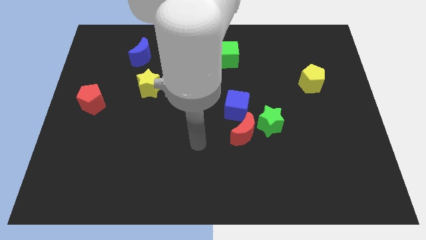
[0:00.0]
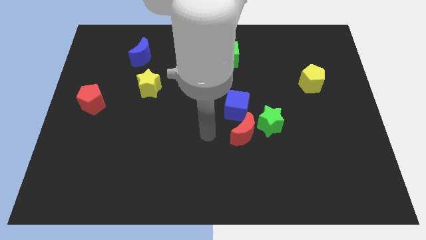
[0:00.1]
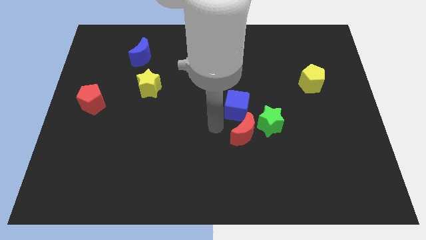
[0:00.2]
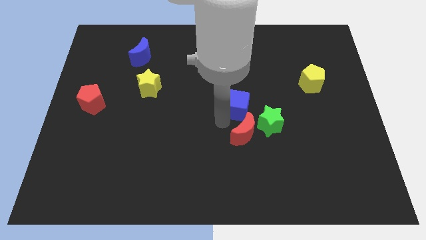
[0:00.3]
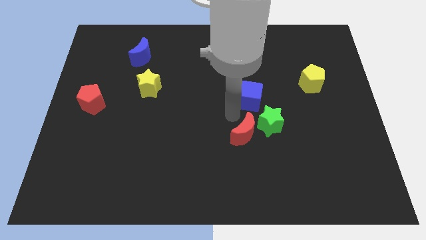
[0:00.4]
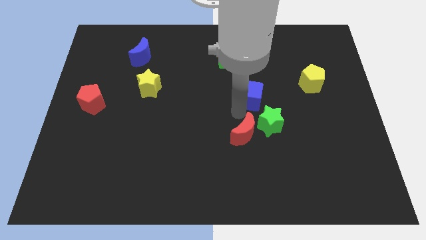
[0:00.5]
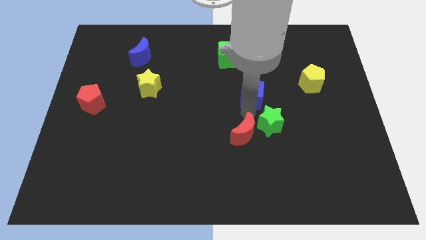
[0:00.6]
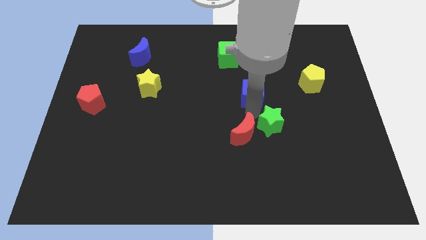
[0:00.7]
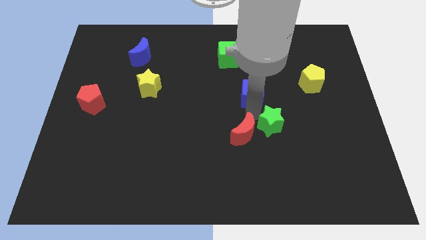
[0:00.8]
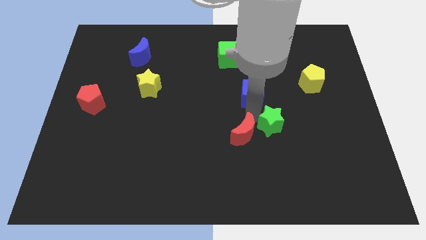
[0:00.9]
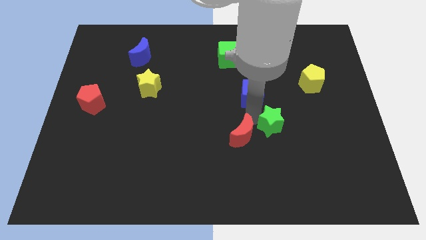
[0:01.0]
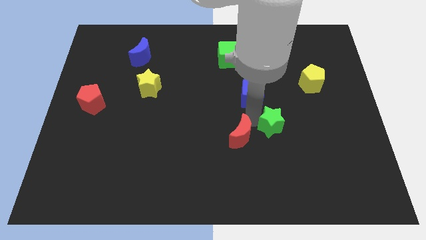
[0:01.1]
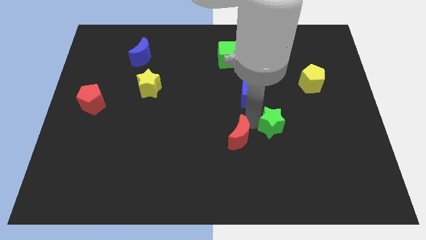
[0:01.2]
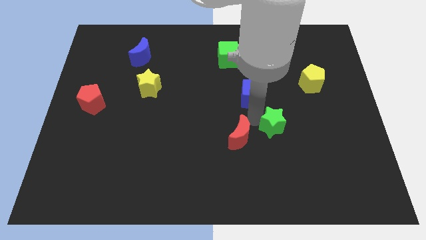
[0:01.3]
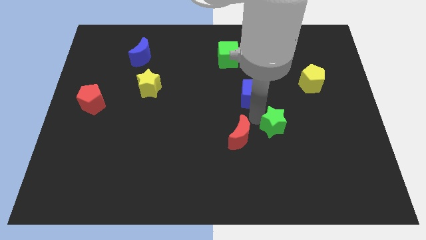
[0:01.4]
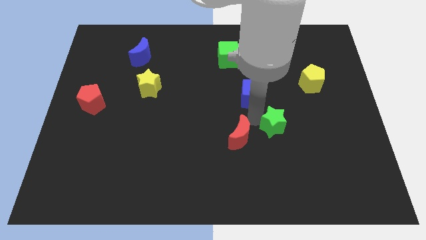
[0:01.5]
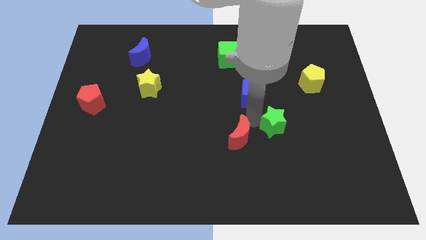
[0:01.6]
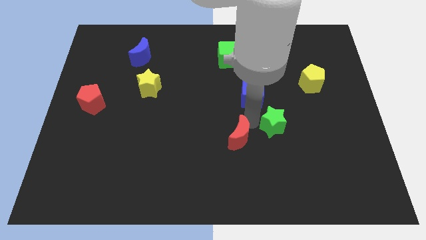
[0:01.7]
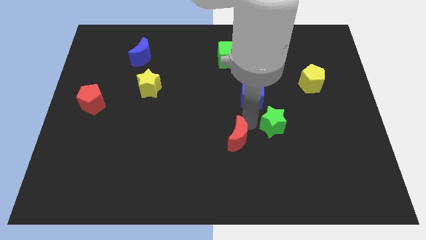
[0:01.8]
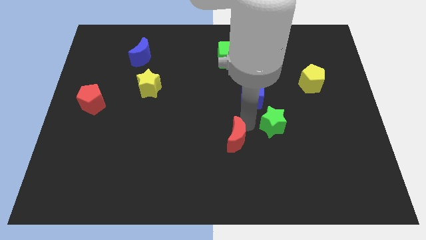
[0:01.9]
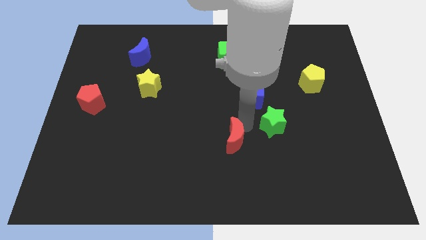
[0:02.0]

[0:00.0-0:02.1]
move the red moon away from the green star and blue cube

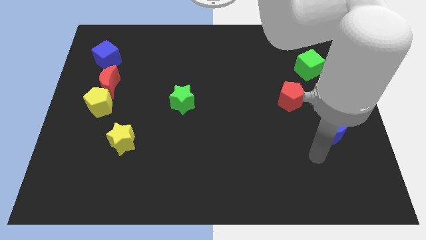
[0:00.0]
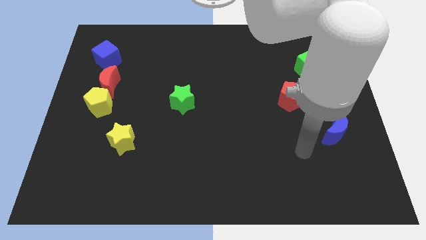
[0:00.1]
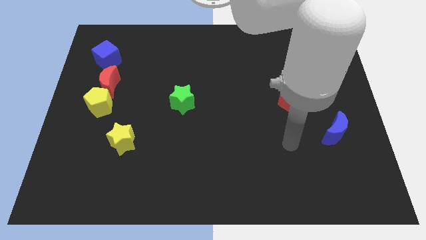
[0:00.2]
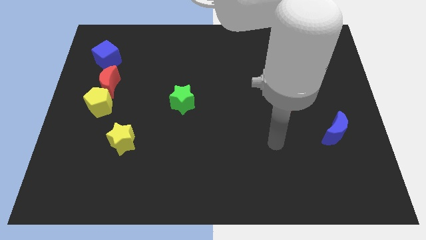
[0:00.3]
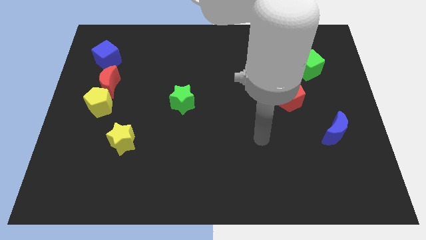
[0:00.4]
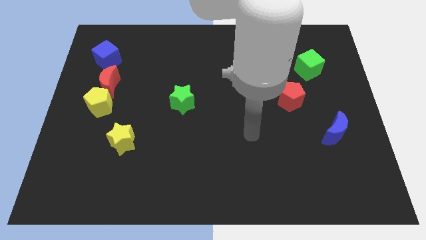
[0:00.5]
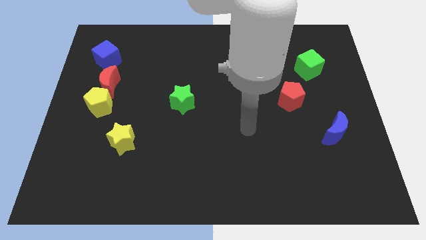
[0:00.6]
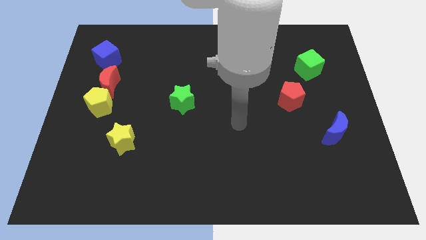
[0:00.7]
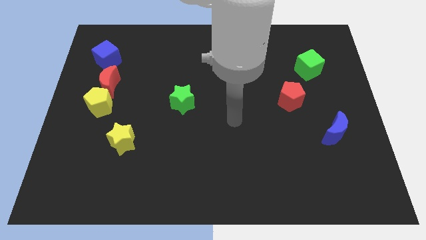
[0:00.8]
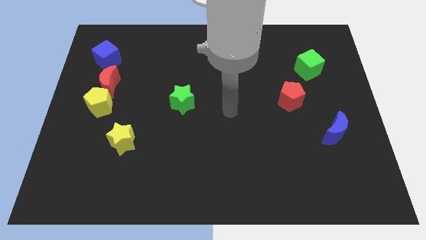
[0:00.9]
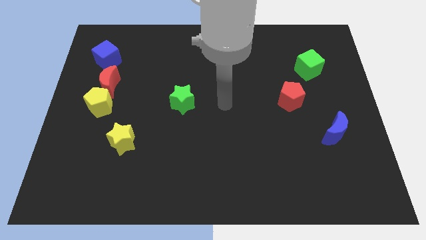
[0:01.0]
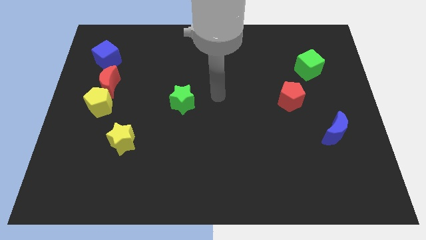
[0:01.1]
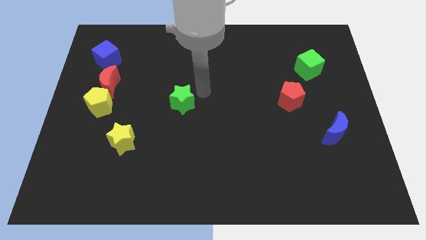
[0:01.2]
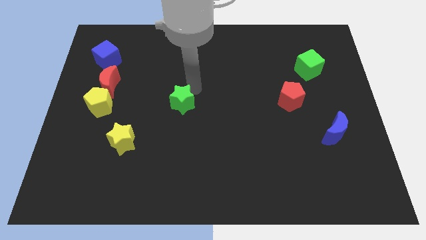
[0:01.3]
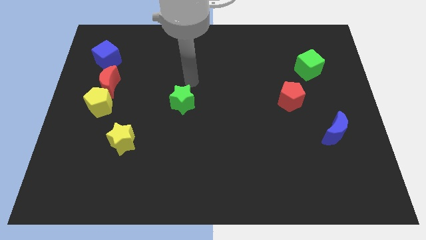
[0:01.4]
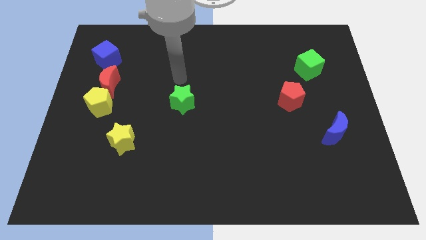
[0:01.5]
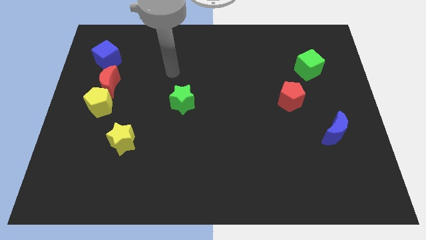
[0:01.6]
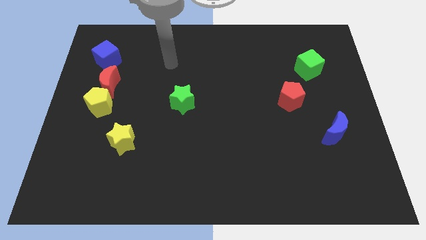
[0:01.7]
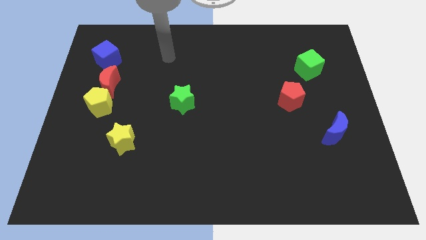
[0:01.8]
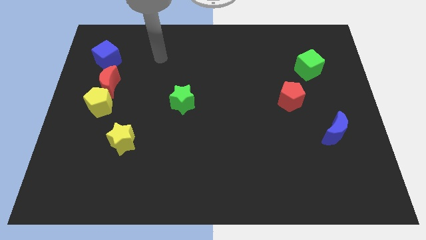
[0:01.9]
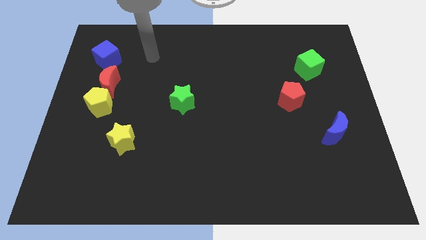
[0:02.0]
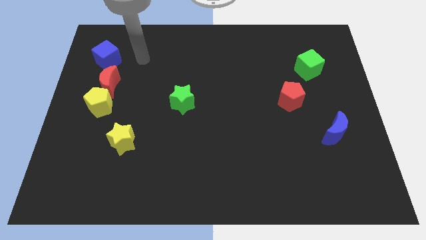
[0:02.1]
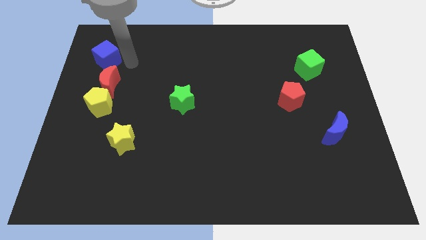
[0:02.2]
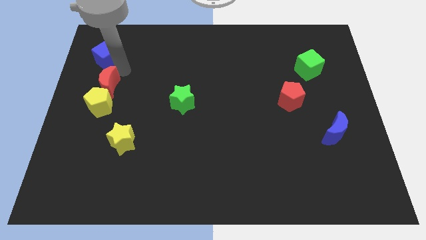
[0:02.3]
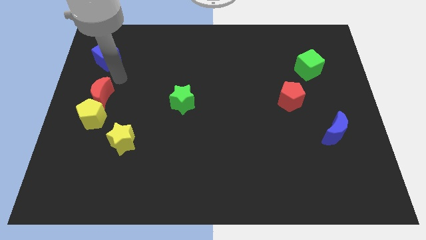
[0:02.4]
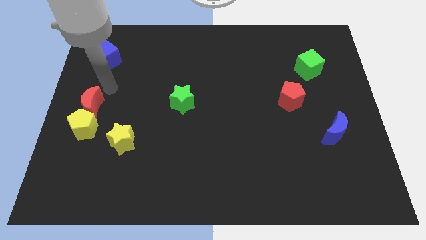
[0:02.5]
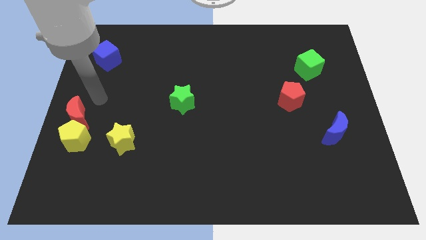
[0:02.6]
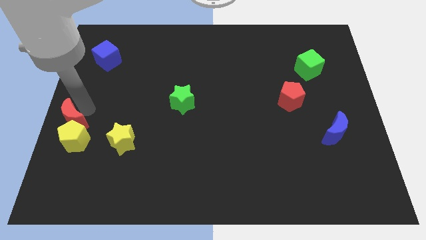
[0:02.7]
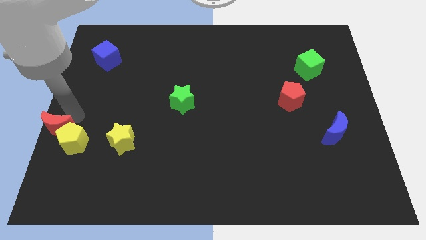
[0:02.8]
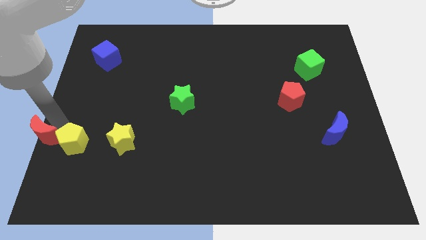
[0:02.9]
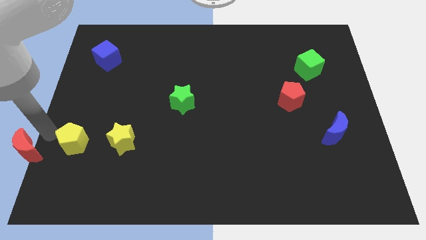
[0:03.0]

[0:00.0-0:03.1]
pull the yellow pentagon apart from the red moon

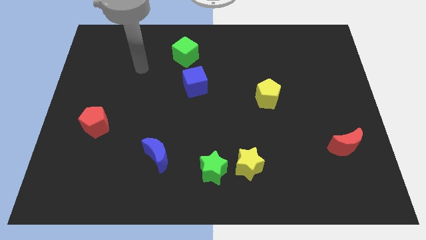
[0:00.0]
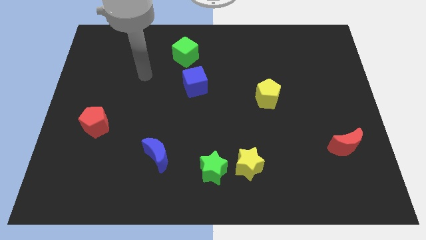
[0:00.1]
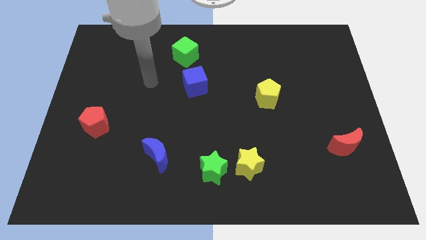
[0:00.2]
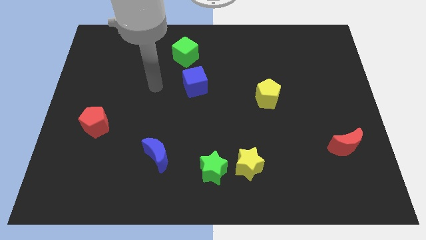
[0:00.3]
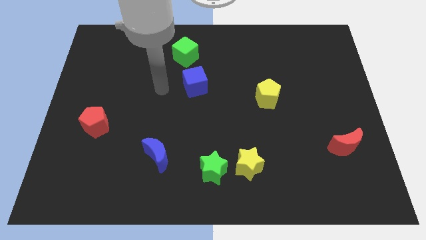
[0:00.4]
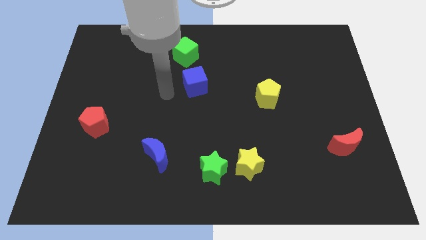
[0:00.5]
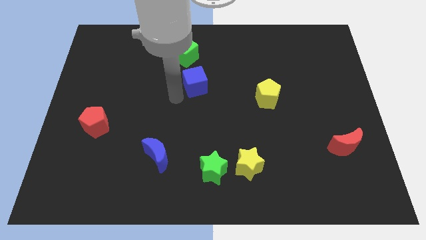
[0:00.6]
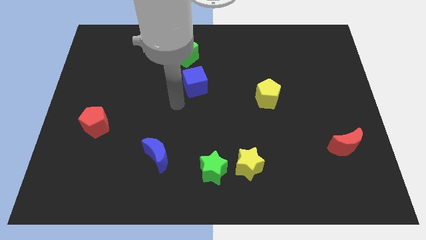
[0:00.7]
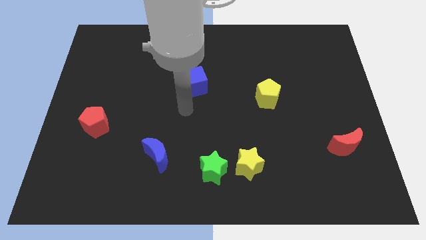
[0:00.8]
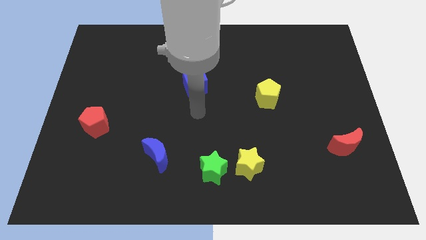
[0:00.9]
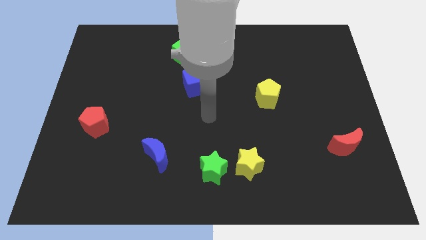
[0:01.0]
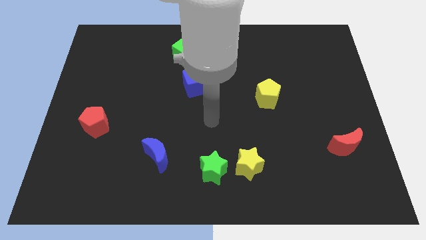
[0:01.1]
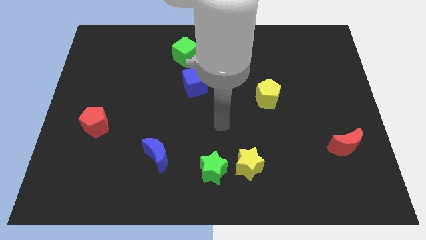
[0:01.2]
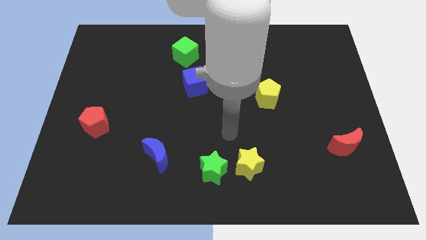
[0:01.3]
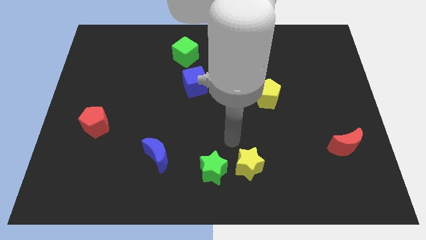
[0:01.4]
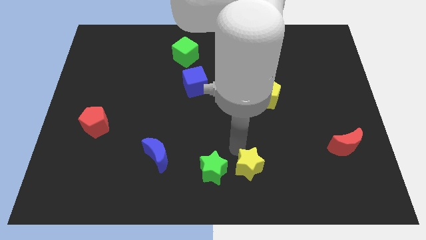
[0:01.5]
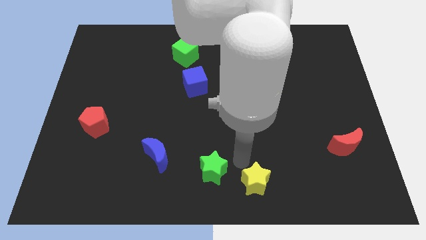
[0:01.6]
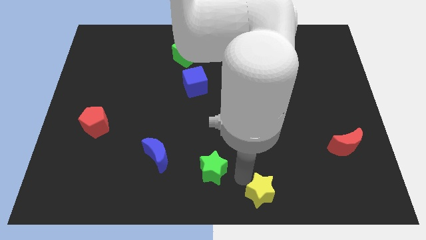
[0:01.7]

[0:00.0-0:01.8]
pull the green star apart from the yellow star

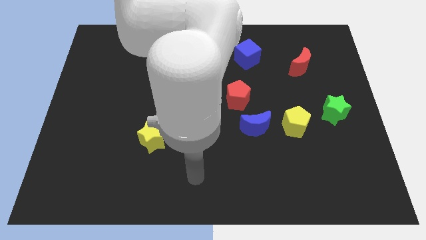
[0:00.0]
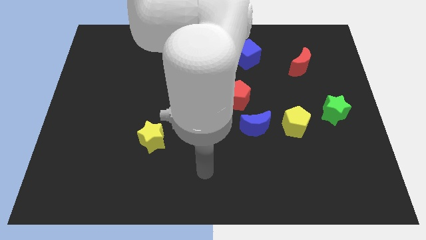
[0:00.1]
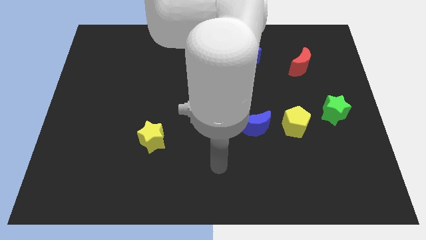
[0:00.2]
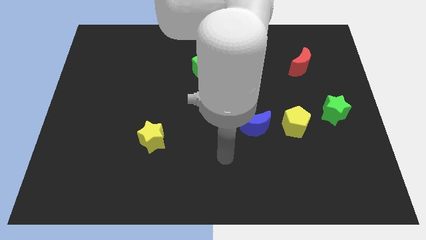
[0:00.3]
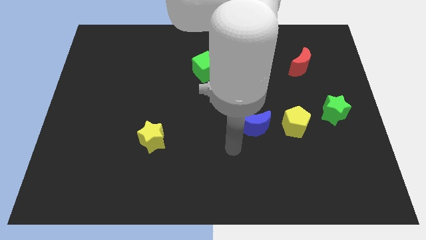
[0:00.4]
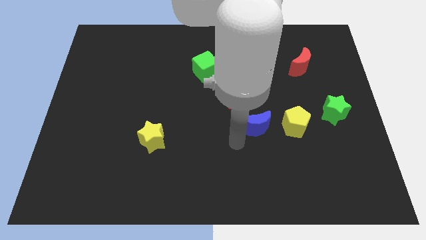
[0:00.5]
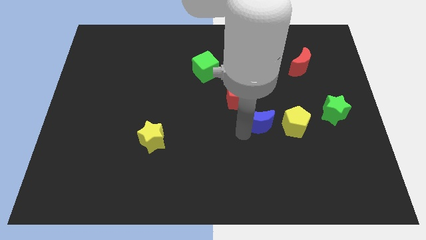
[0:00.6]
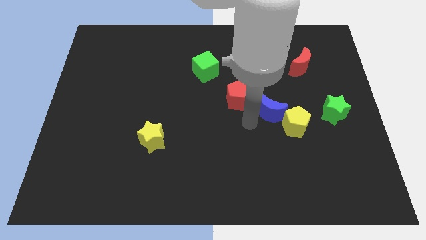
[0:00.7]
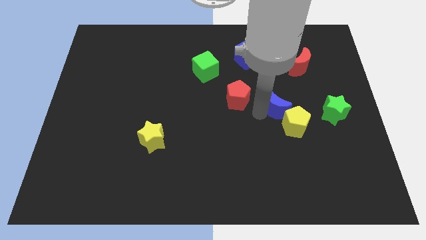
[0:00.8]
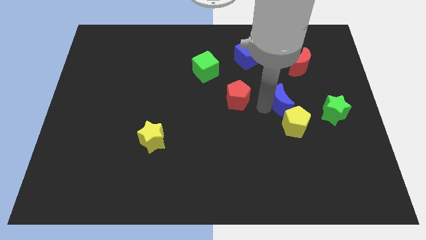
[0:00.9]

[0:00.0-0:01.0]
separate the red pentagon from the blue moon

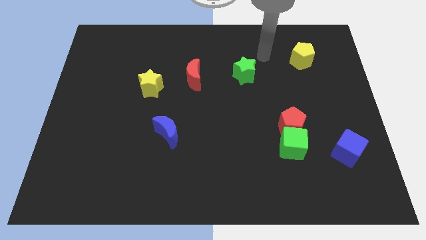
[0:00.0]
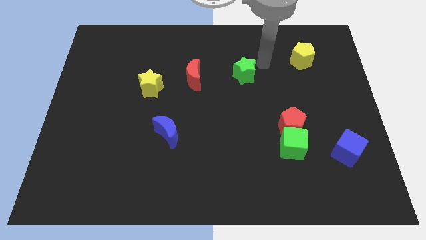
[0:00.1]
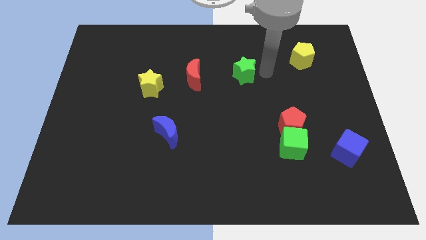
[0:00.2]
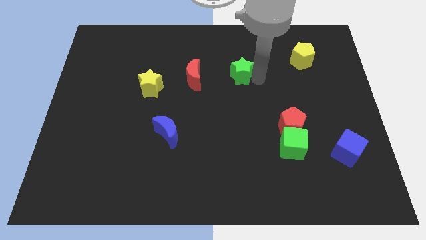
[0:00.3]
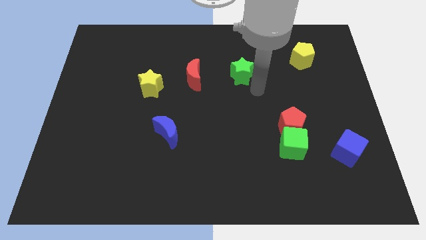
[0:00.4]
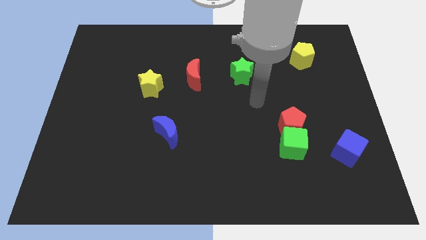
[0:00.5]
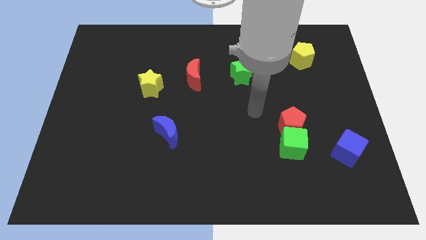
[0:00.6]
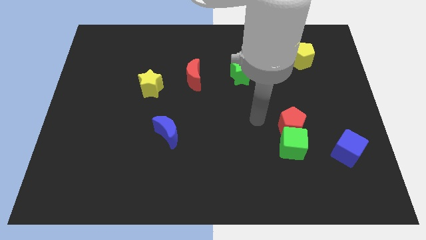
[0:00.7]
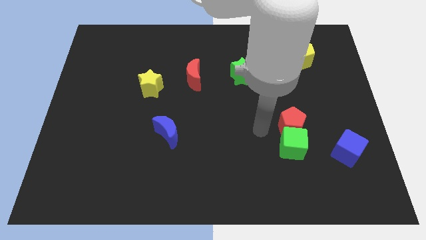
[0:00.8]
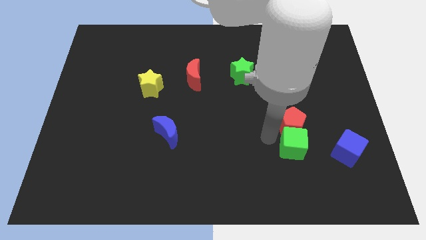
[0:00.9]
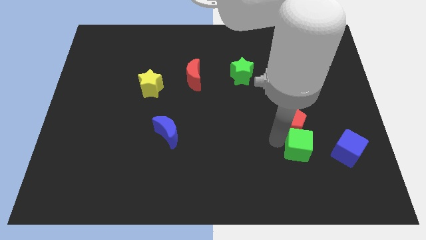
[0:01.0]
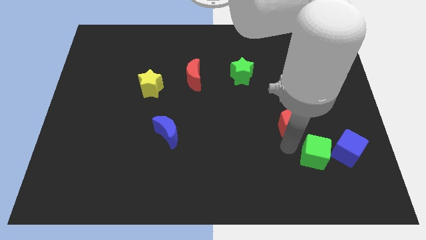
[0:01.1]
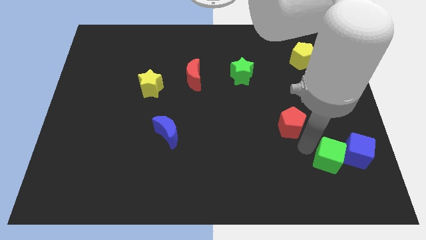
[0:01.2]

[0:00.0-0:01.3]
move the red pentagon away from the green cube
